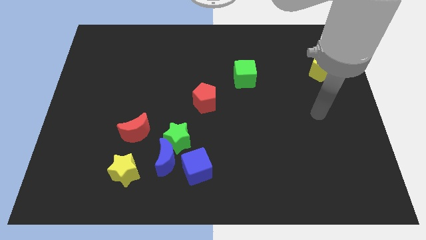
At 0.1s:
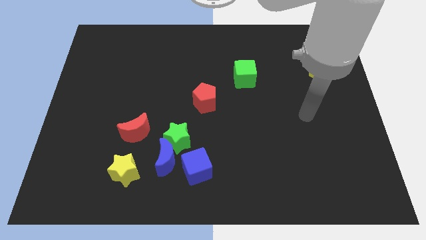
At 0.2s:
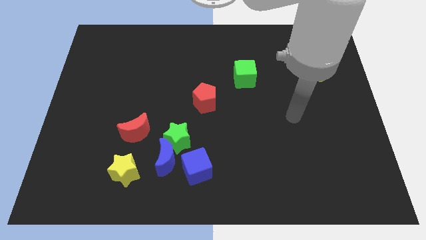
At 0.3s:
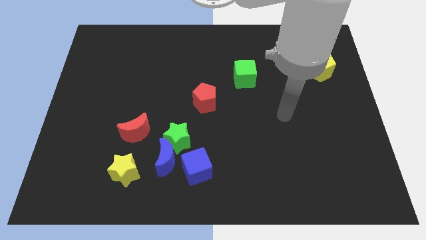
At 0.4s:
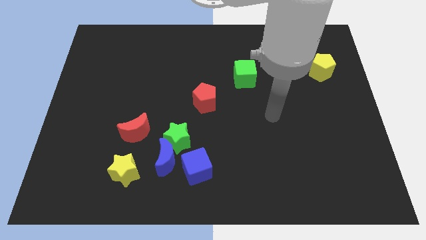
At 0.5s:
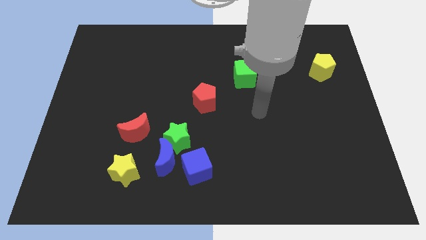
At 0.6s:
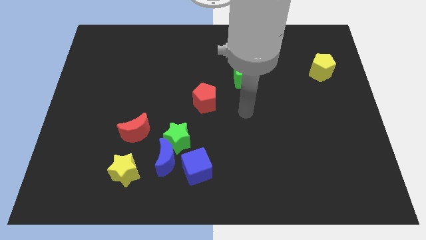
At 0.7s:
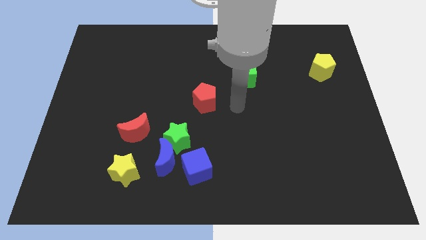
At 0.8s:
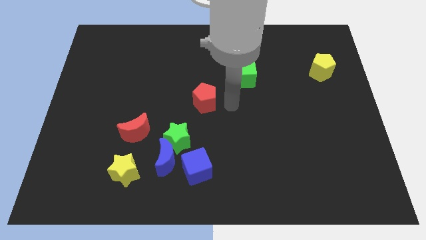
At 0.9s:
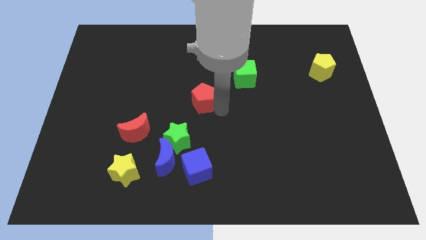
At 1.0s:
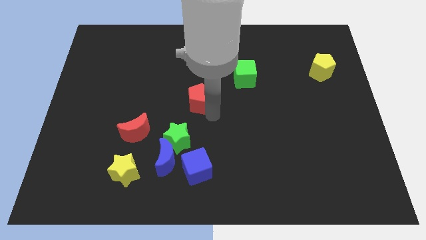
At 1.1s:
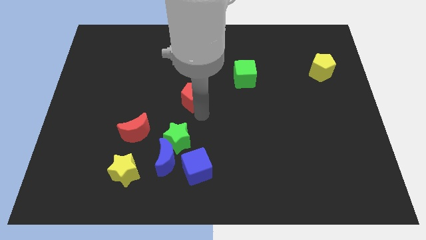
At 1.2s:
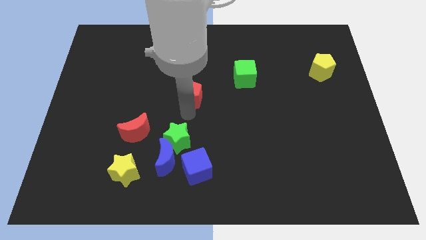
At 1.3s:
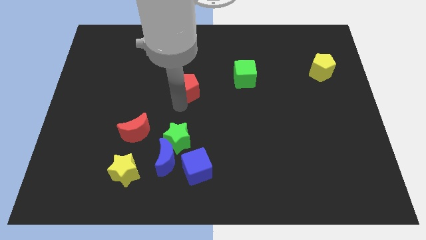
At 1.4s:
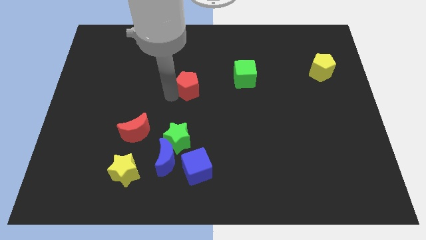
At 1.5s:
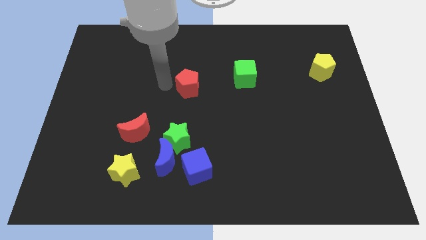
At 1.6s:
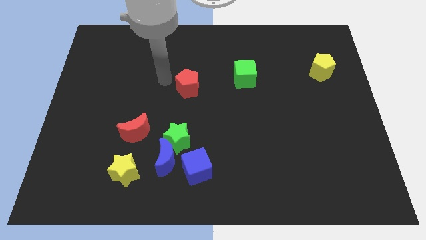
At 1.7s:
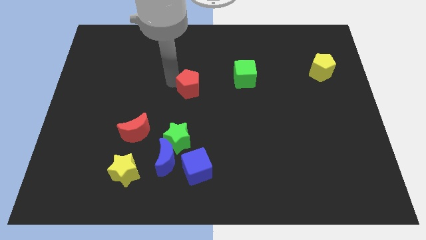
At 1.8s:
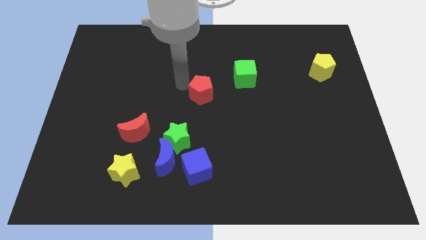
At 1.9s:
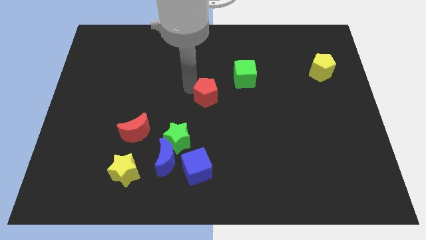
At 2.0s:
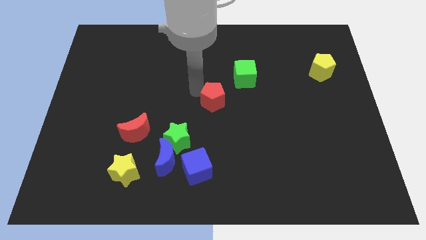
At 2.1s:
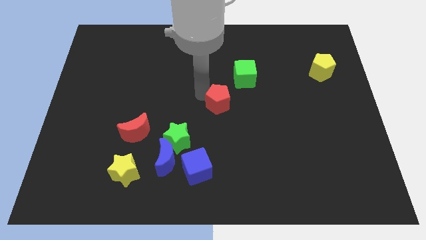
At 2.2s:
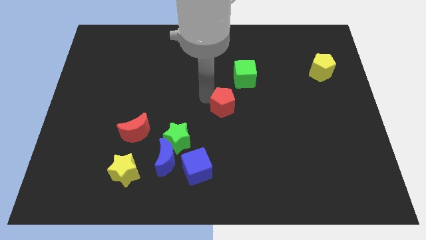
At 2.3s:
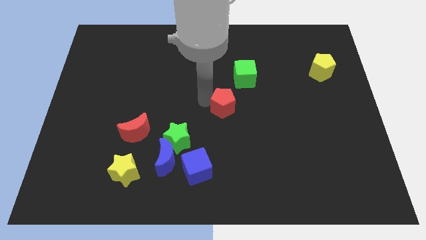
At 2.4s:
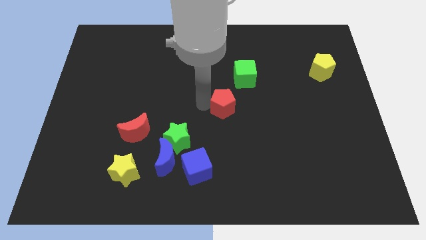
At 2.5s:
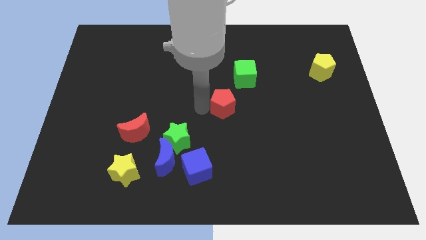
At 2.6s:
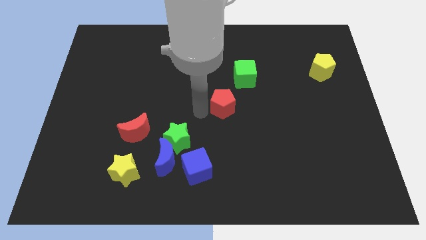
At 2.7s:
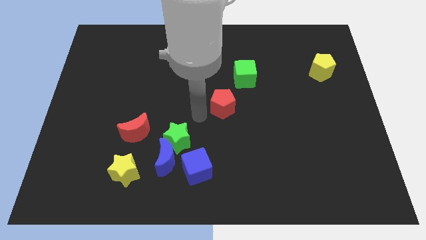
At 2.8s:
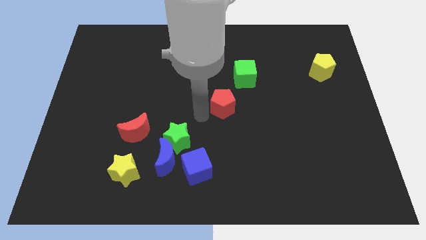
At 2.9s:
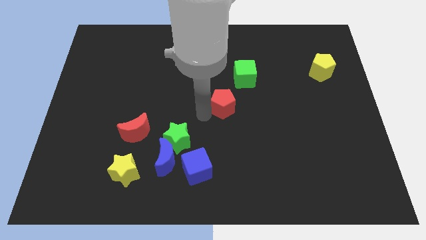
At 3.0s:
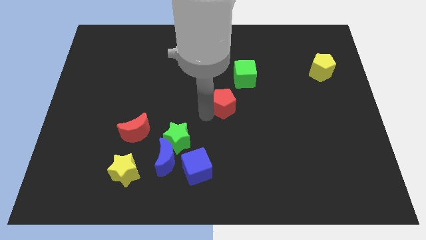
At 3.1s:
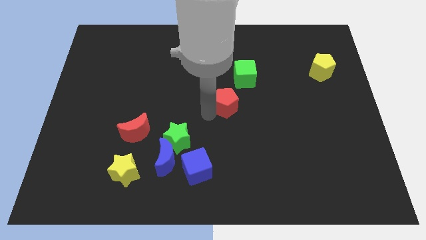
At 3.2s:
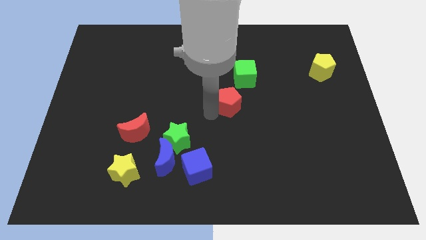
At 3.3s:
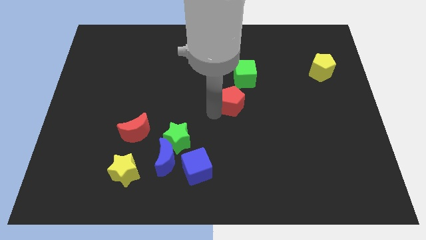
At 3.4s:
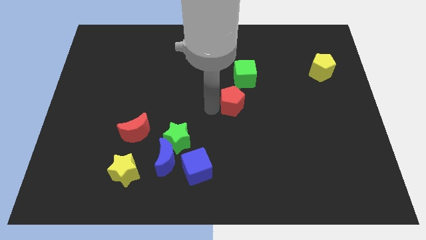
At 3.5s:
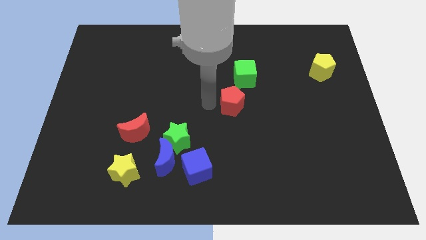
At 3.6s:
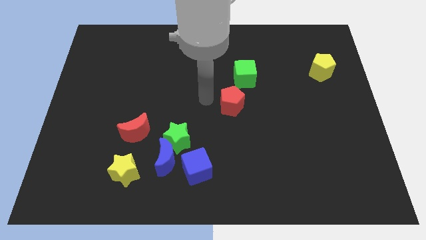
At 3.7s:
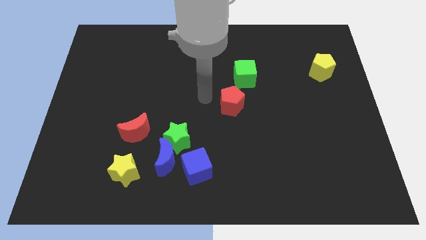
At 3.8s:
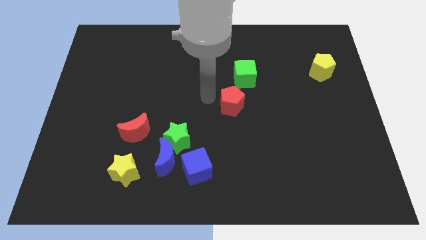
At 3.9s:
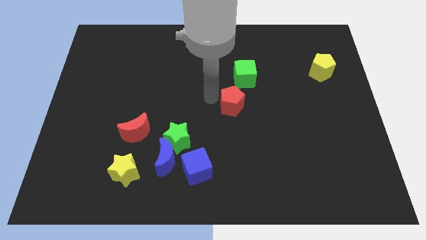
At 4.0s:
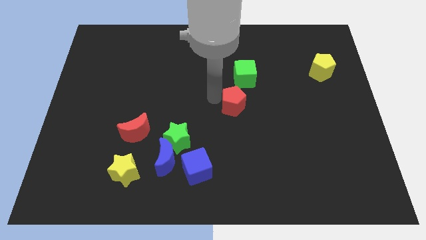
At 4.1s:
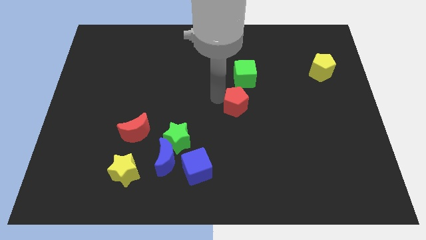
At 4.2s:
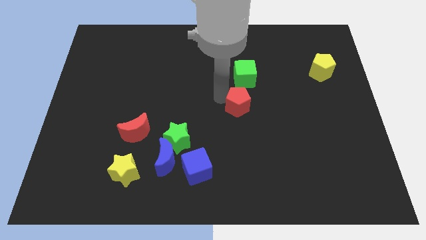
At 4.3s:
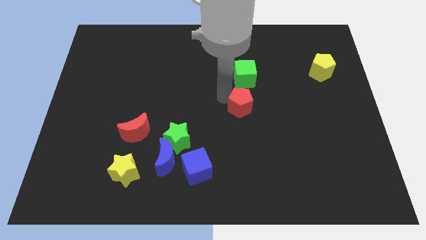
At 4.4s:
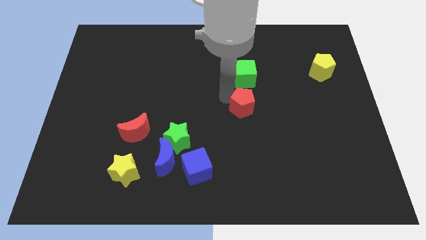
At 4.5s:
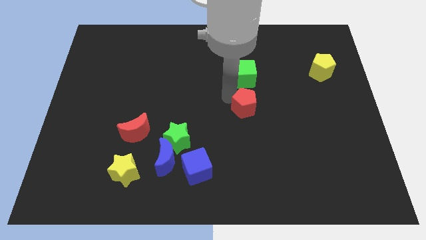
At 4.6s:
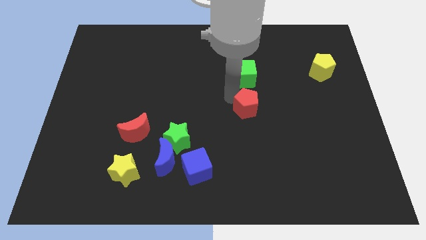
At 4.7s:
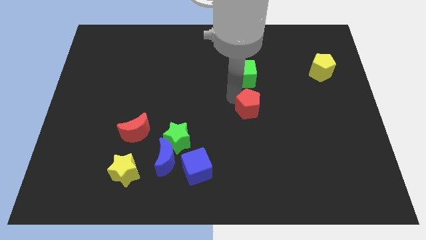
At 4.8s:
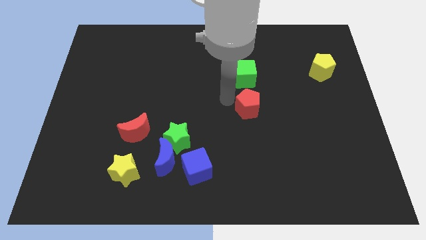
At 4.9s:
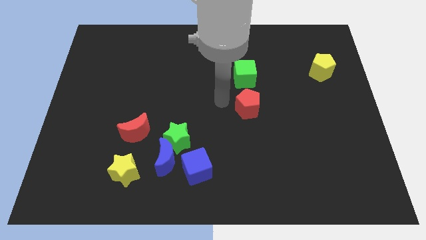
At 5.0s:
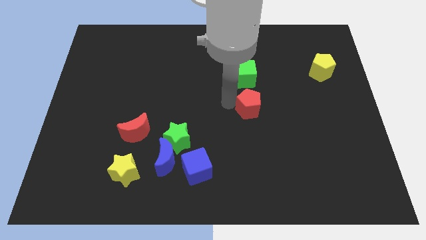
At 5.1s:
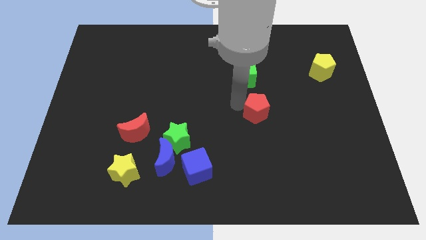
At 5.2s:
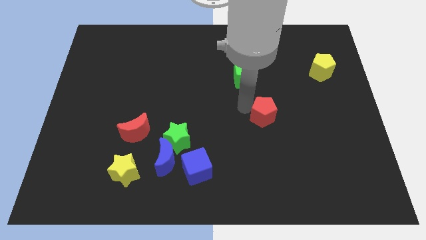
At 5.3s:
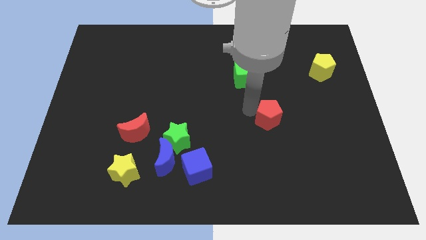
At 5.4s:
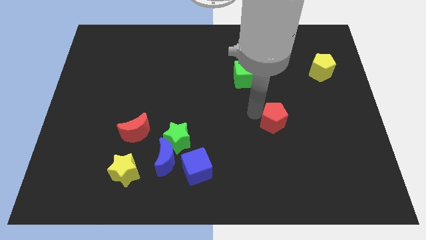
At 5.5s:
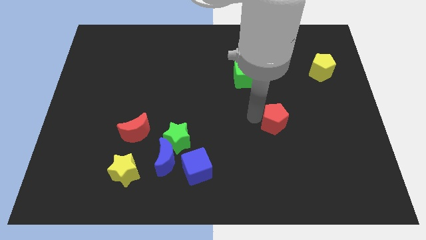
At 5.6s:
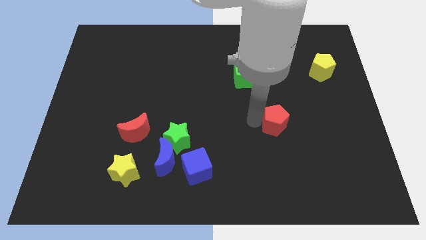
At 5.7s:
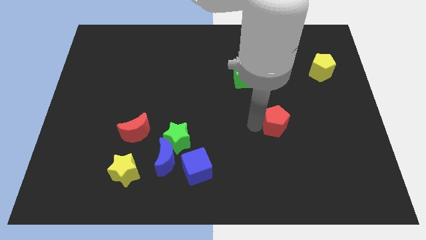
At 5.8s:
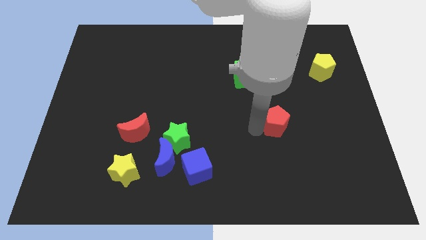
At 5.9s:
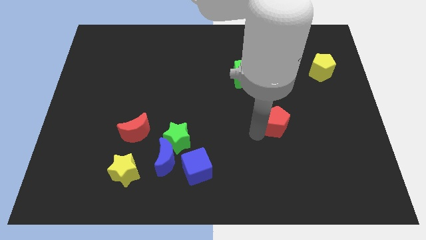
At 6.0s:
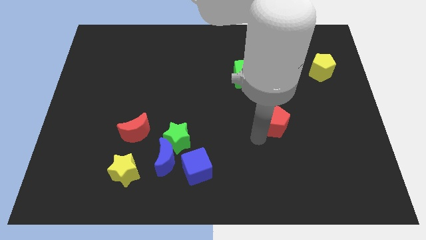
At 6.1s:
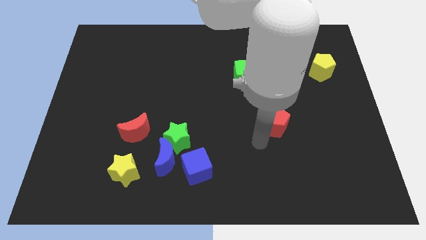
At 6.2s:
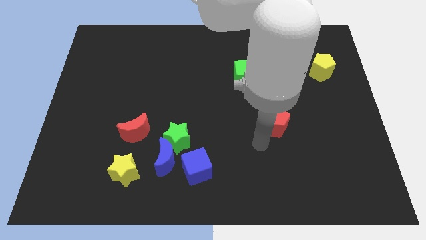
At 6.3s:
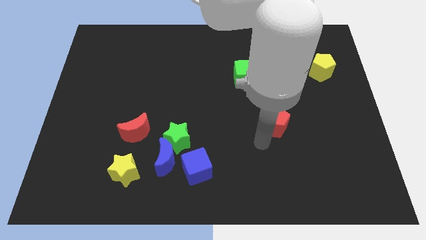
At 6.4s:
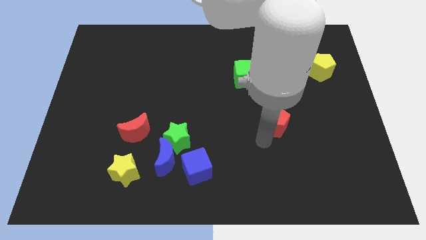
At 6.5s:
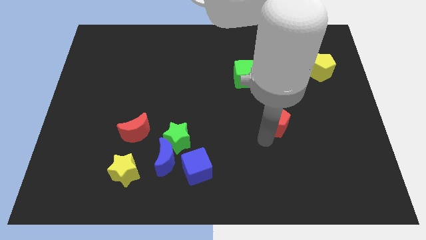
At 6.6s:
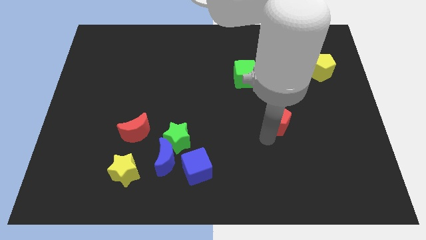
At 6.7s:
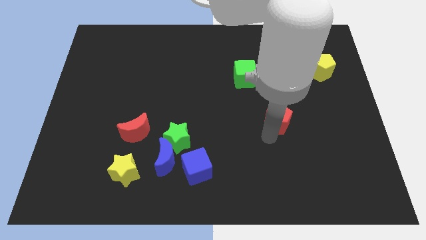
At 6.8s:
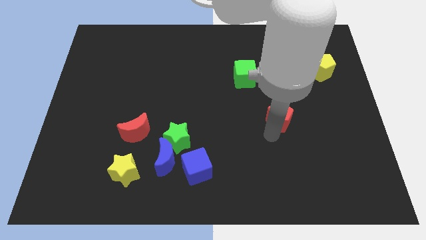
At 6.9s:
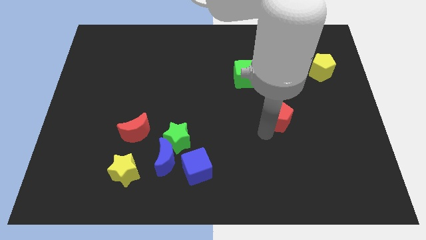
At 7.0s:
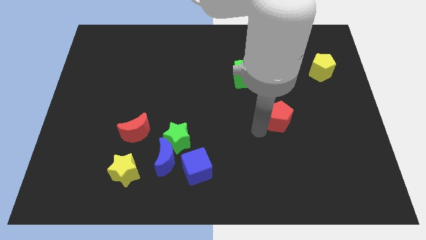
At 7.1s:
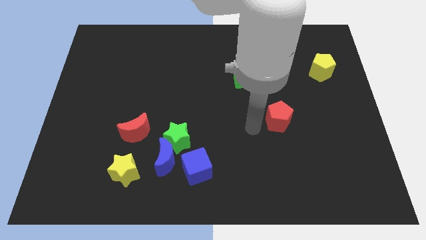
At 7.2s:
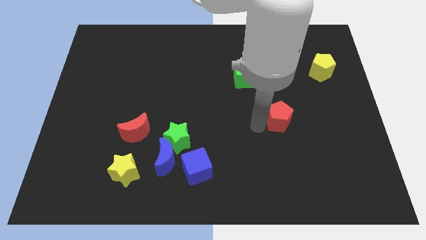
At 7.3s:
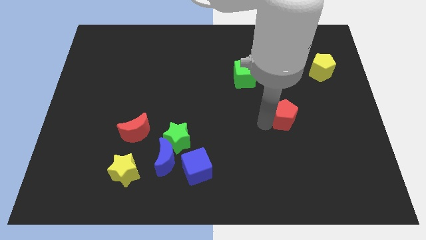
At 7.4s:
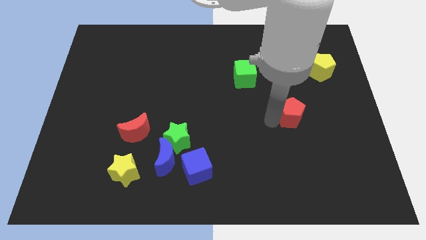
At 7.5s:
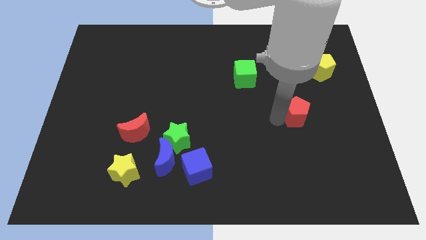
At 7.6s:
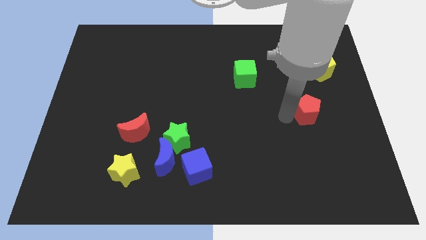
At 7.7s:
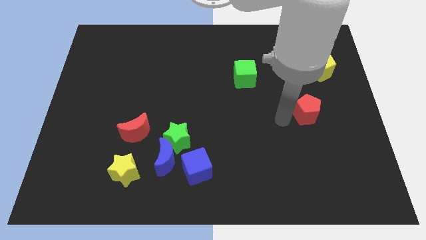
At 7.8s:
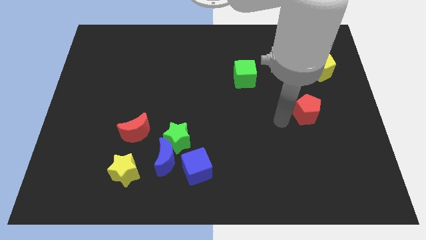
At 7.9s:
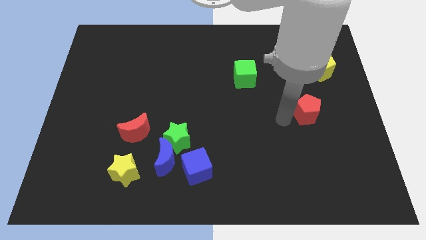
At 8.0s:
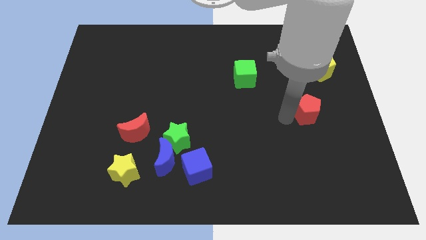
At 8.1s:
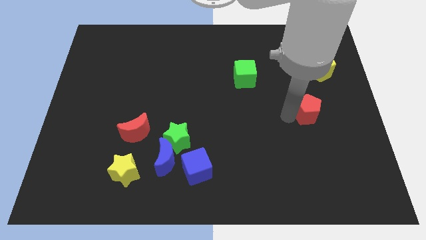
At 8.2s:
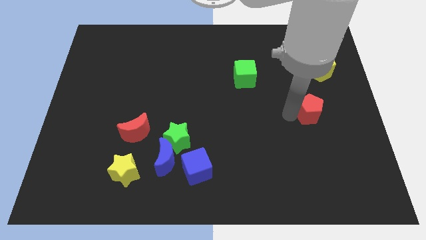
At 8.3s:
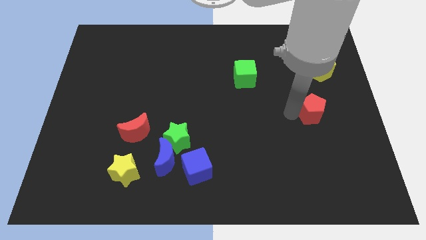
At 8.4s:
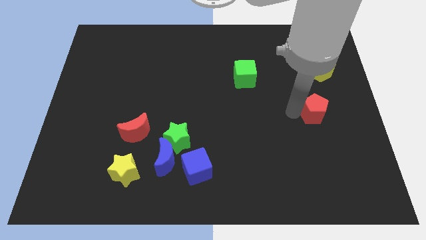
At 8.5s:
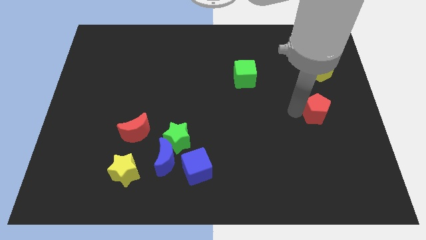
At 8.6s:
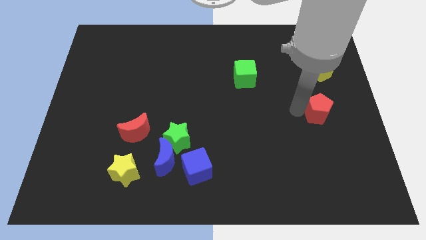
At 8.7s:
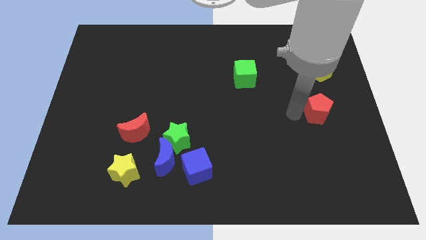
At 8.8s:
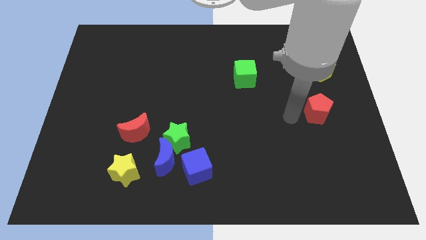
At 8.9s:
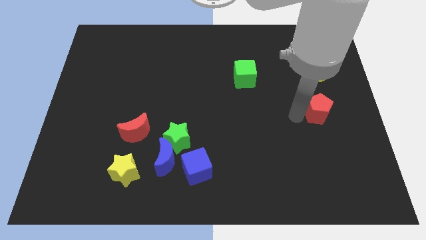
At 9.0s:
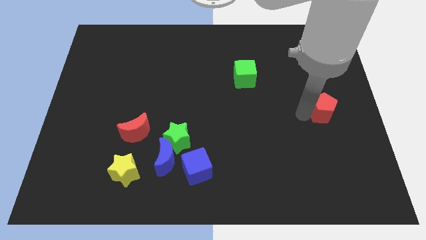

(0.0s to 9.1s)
put the red pentagon to the right side
